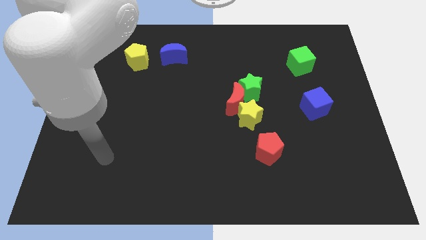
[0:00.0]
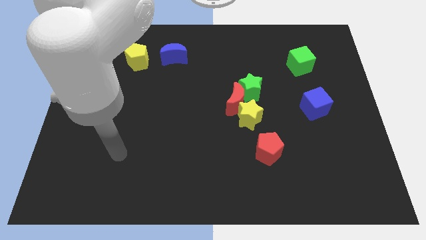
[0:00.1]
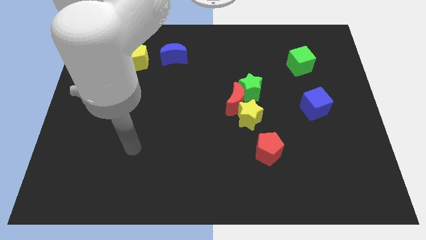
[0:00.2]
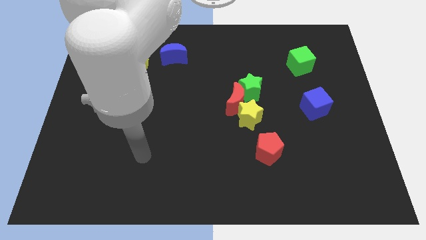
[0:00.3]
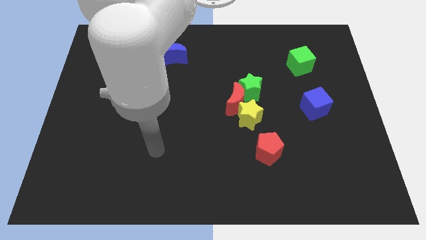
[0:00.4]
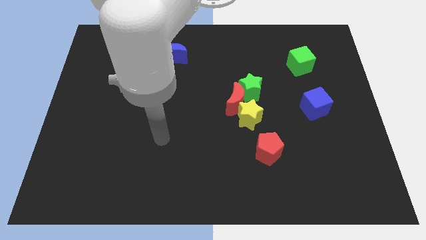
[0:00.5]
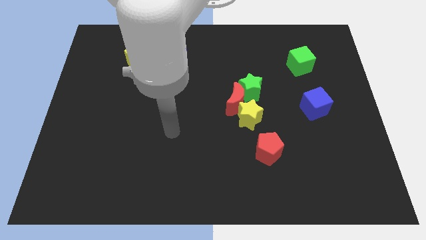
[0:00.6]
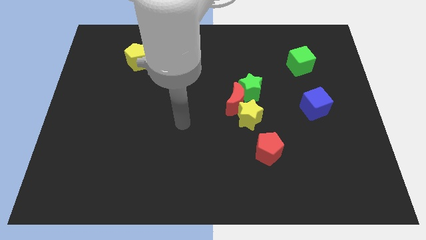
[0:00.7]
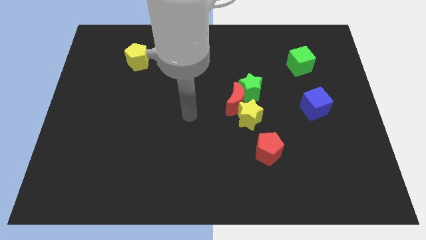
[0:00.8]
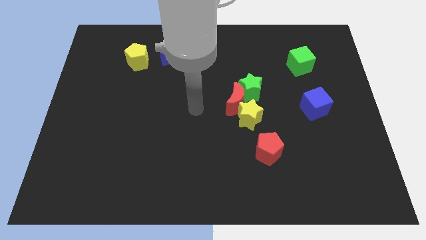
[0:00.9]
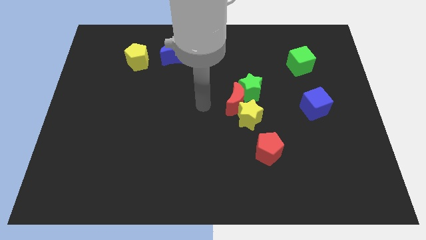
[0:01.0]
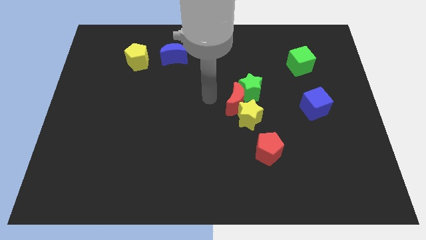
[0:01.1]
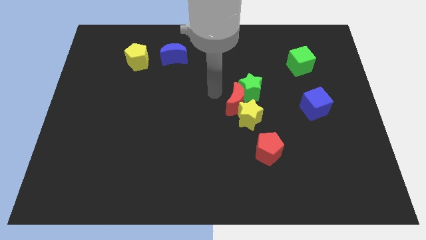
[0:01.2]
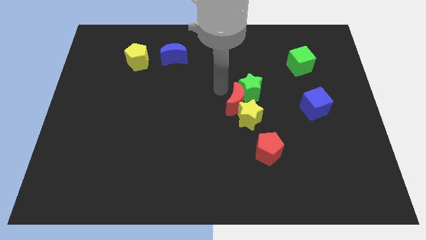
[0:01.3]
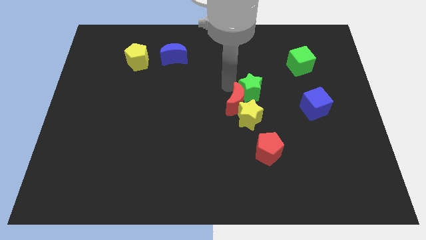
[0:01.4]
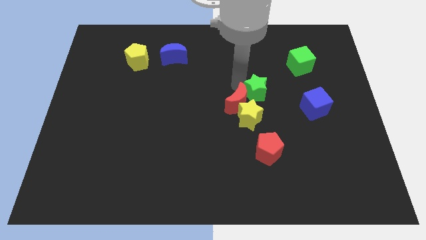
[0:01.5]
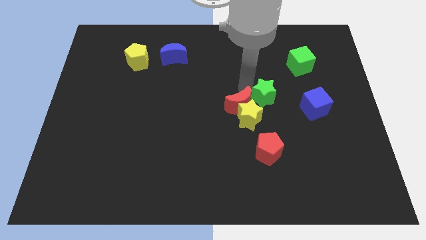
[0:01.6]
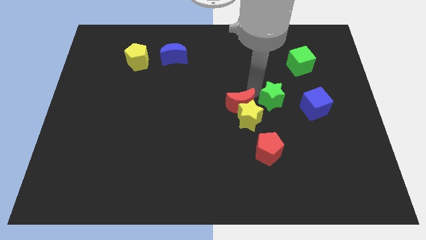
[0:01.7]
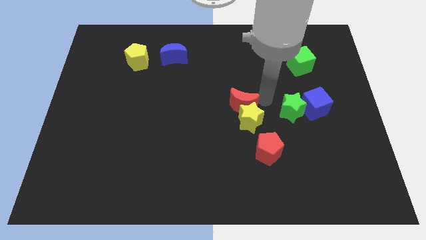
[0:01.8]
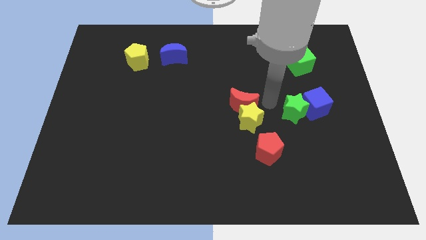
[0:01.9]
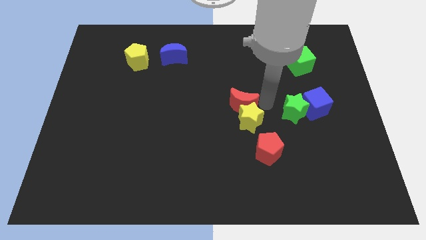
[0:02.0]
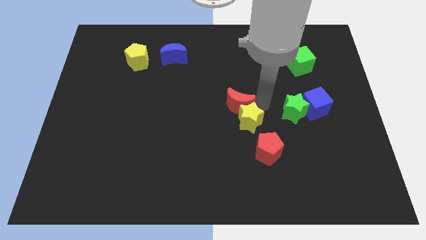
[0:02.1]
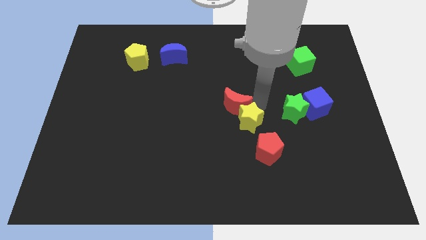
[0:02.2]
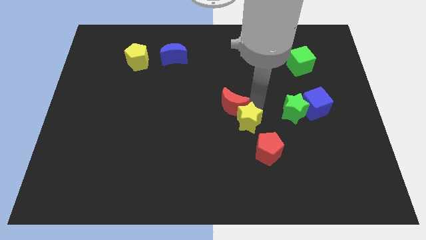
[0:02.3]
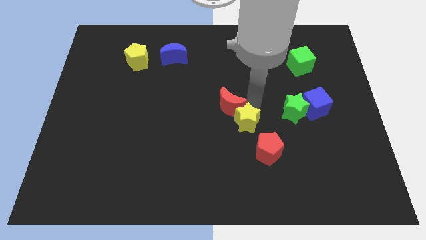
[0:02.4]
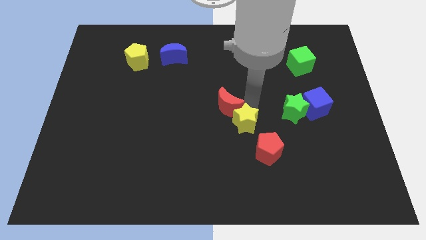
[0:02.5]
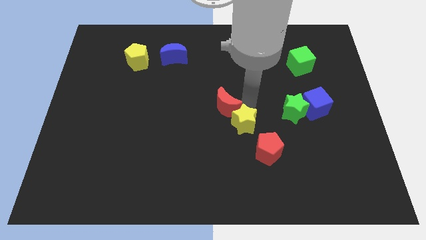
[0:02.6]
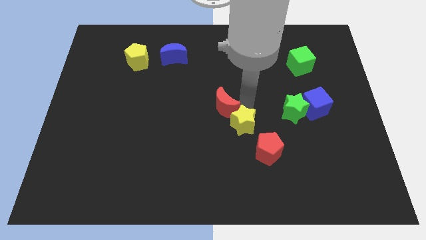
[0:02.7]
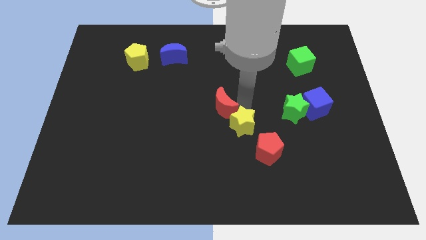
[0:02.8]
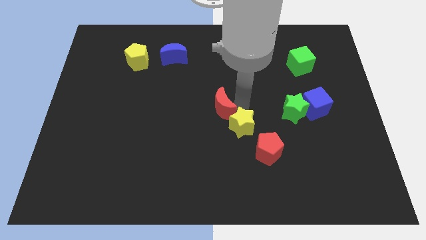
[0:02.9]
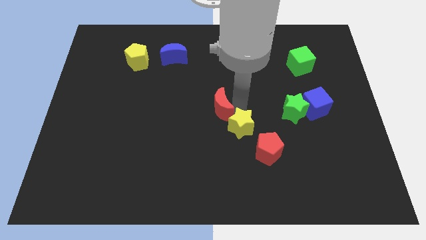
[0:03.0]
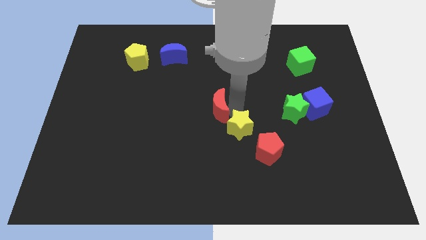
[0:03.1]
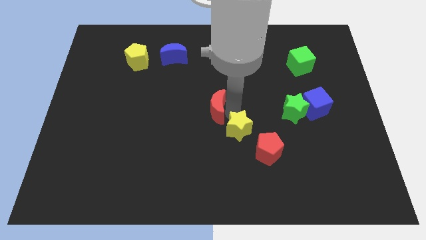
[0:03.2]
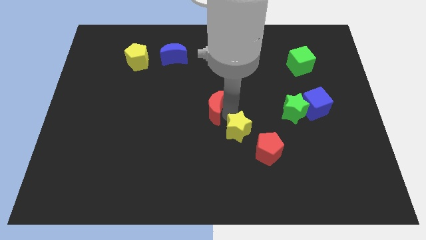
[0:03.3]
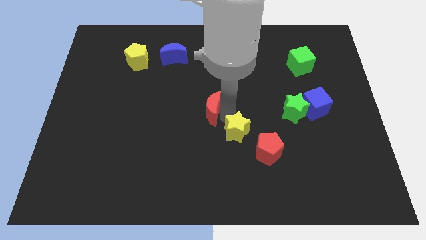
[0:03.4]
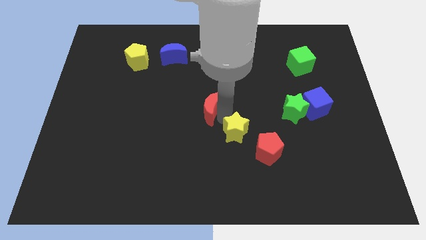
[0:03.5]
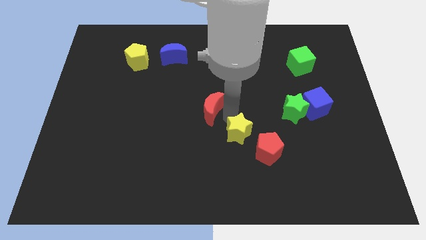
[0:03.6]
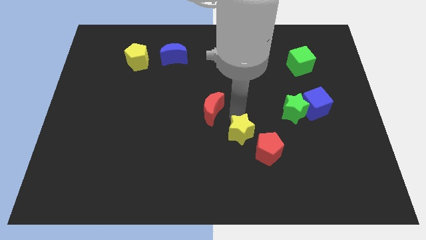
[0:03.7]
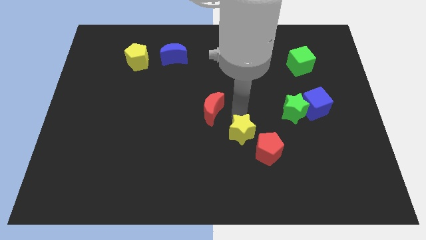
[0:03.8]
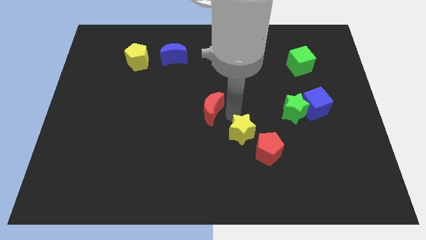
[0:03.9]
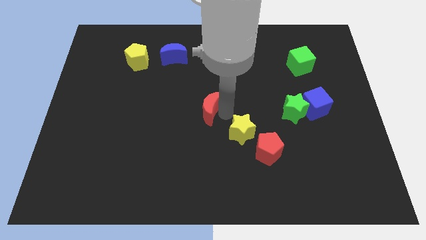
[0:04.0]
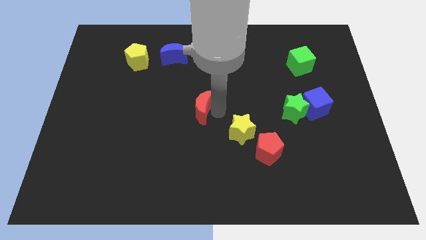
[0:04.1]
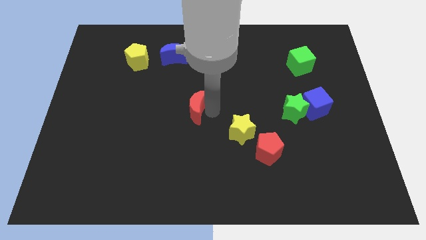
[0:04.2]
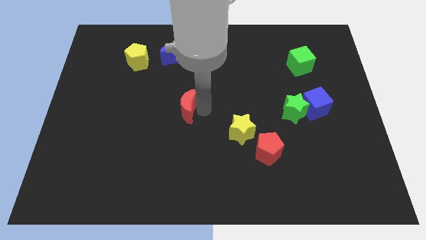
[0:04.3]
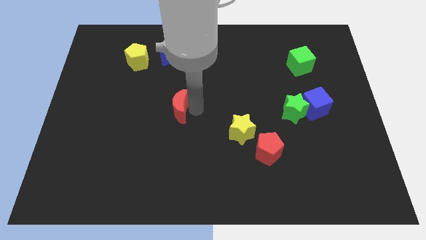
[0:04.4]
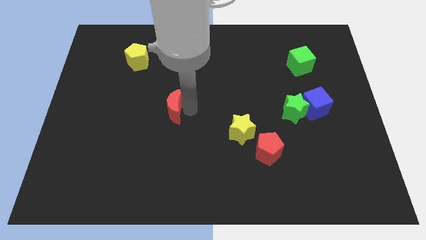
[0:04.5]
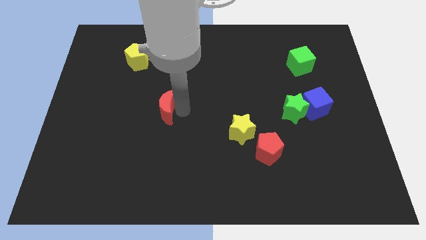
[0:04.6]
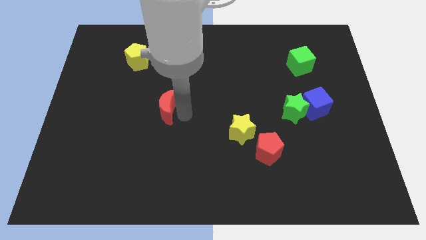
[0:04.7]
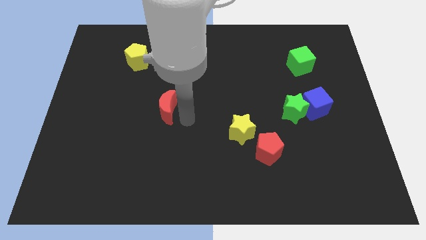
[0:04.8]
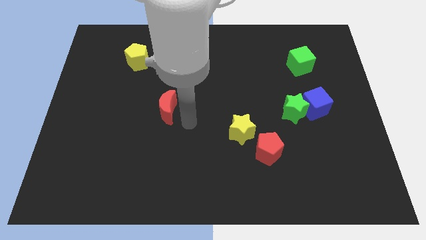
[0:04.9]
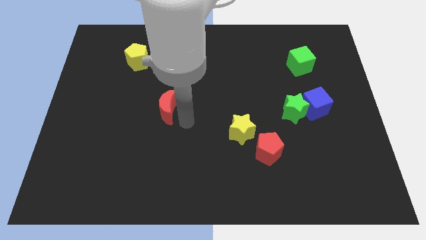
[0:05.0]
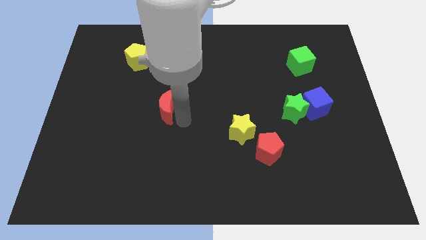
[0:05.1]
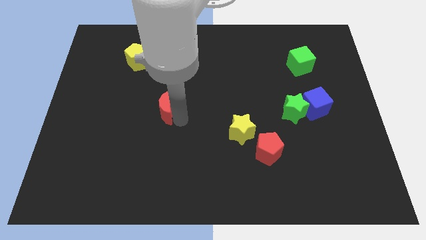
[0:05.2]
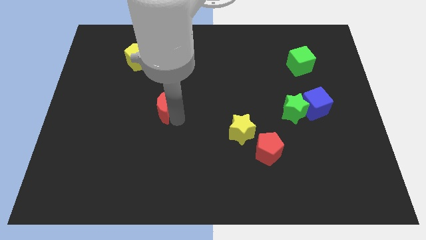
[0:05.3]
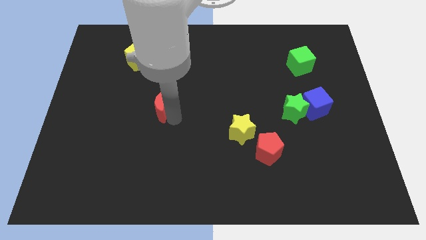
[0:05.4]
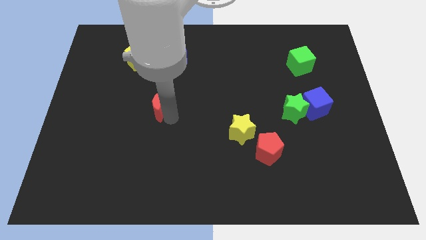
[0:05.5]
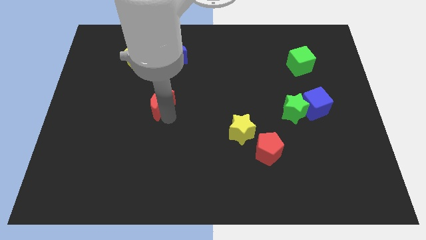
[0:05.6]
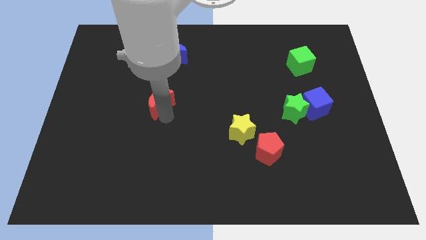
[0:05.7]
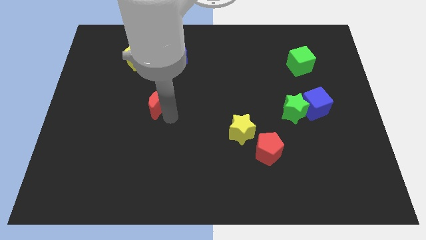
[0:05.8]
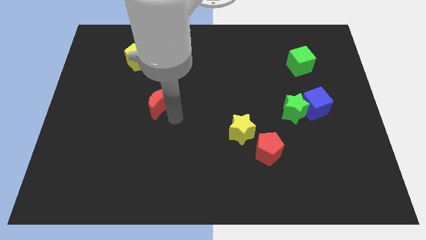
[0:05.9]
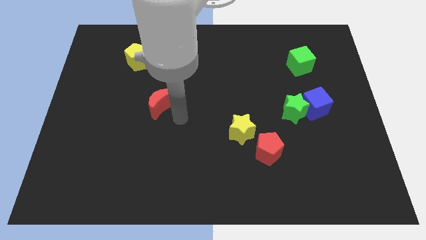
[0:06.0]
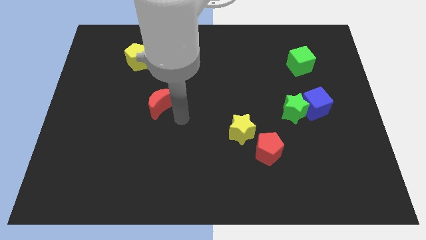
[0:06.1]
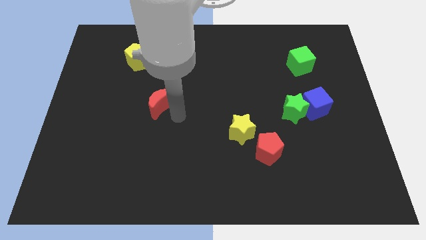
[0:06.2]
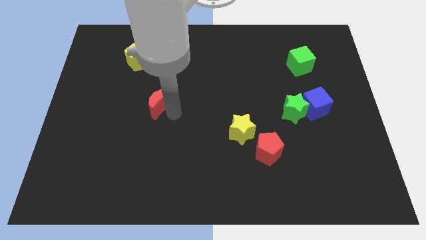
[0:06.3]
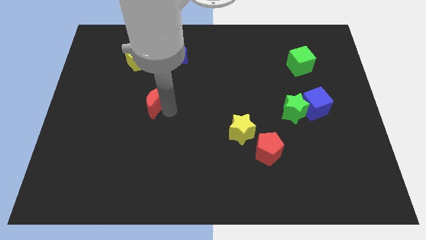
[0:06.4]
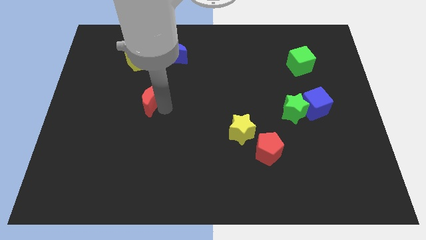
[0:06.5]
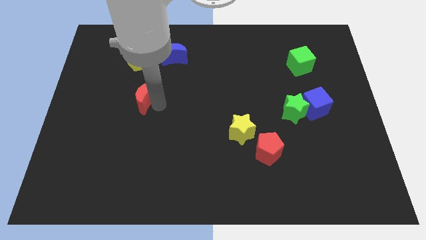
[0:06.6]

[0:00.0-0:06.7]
put the red moon to the bottom side of the yellow pentagon
